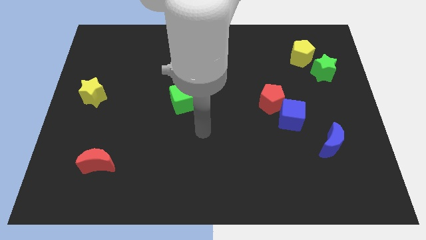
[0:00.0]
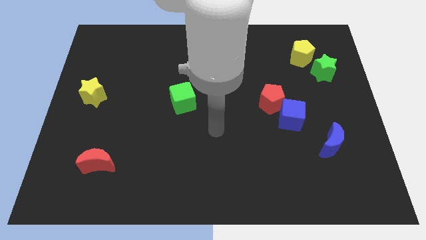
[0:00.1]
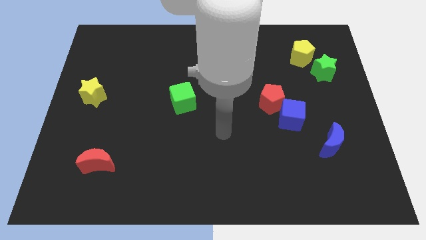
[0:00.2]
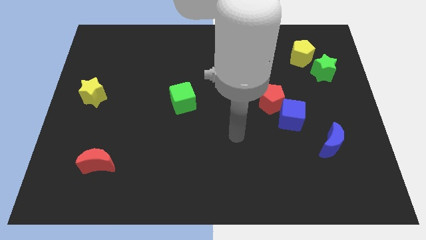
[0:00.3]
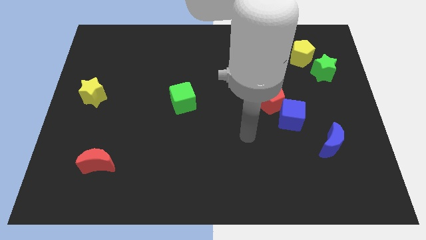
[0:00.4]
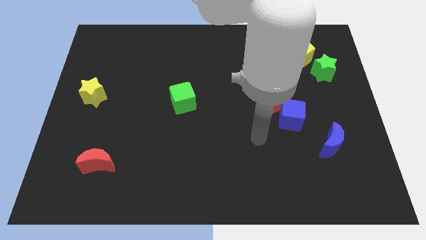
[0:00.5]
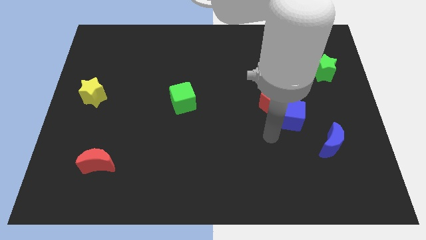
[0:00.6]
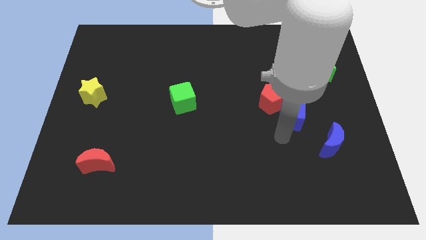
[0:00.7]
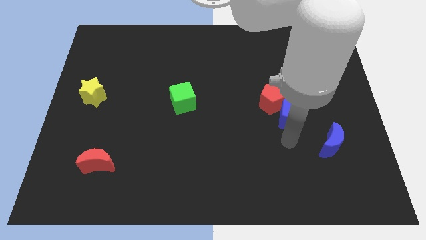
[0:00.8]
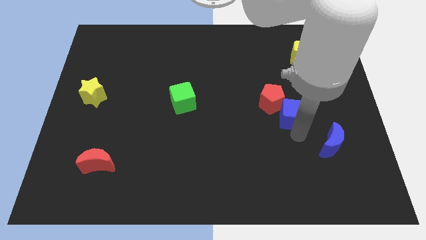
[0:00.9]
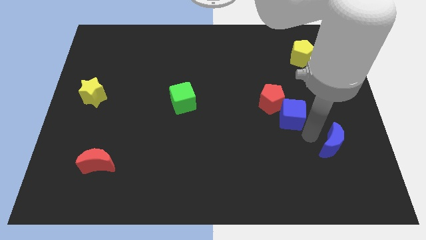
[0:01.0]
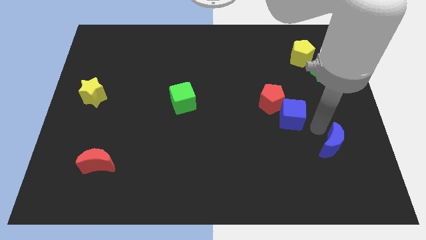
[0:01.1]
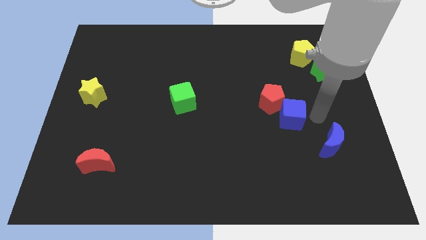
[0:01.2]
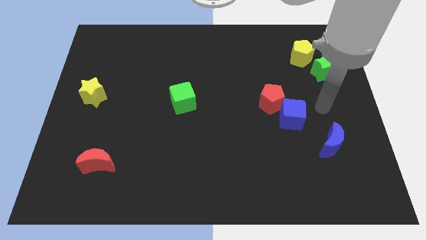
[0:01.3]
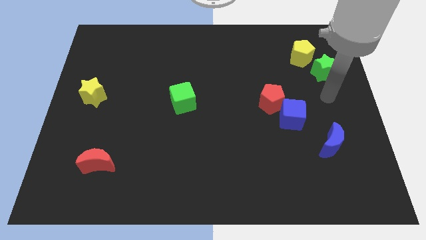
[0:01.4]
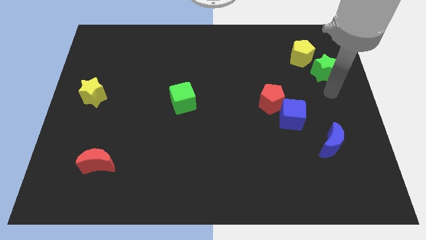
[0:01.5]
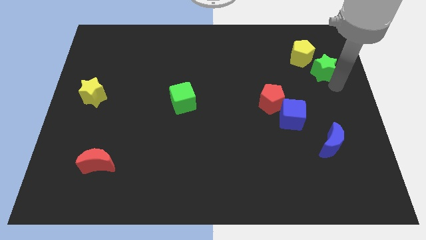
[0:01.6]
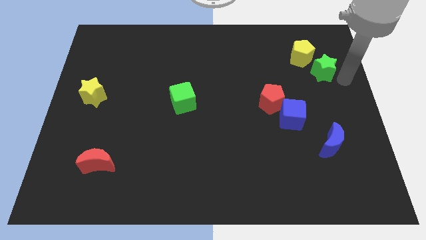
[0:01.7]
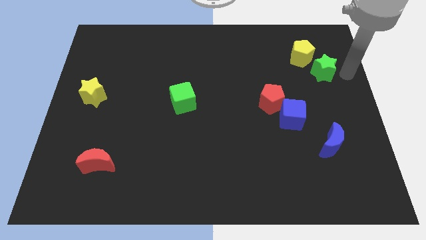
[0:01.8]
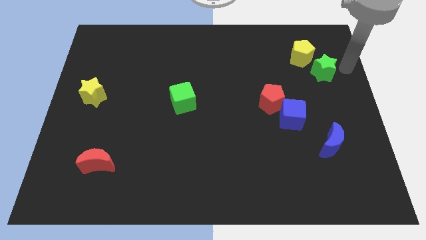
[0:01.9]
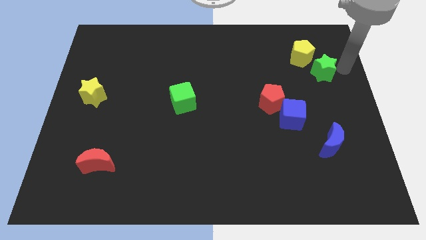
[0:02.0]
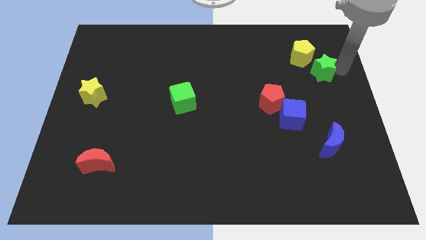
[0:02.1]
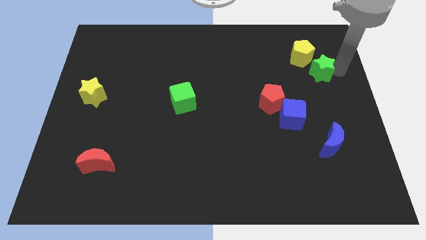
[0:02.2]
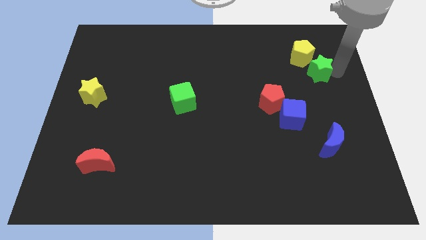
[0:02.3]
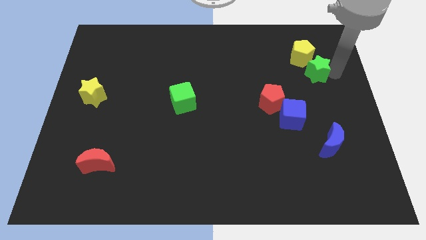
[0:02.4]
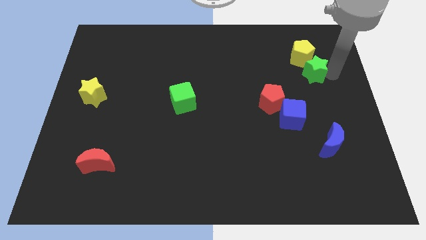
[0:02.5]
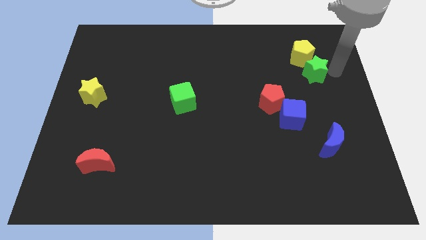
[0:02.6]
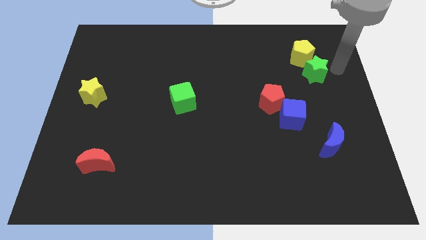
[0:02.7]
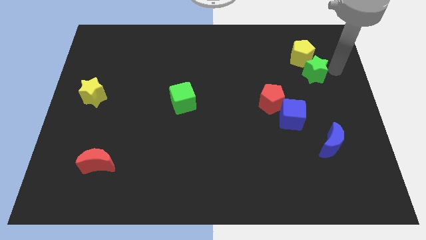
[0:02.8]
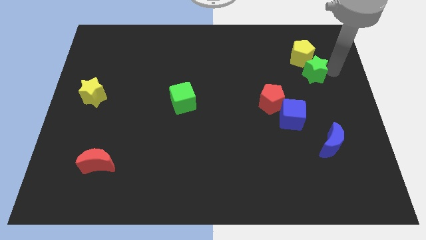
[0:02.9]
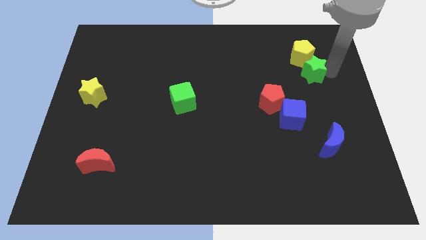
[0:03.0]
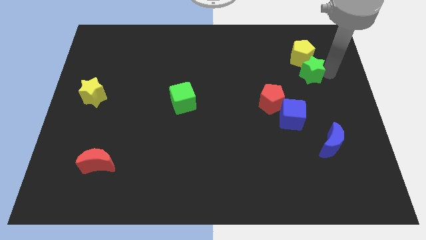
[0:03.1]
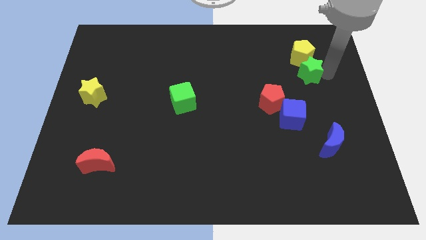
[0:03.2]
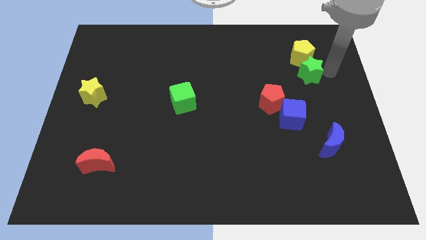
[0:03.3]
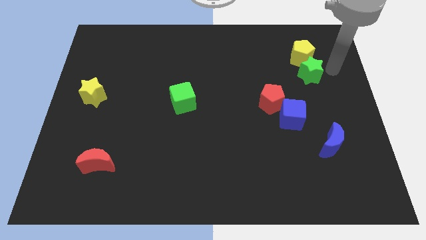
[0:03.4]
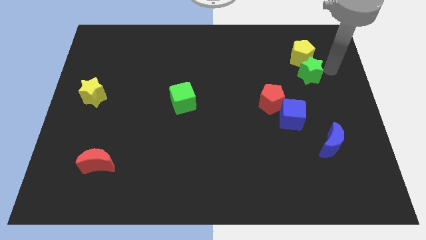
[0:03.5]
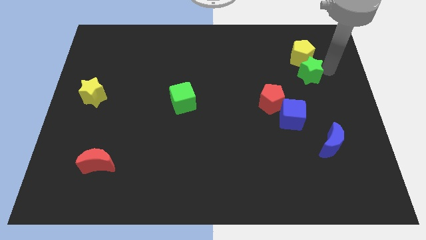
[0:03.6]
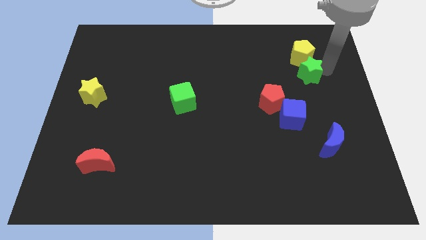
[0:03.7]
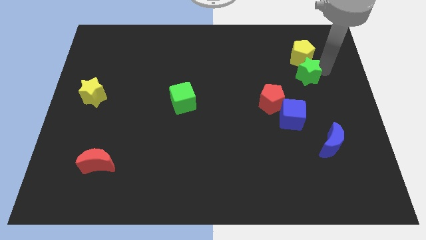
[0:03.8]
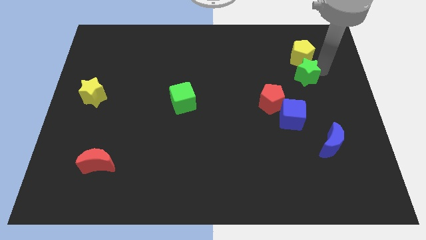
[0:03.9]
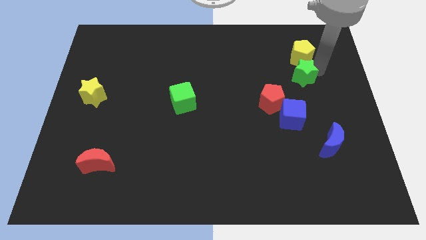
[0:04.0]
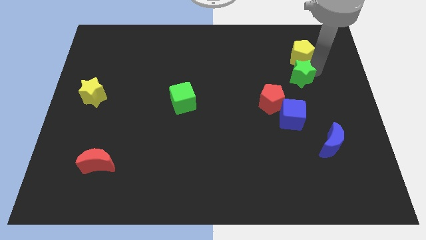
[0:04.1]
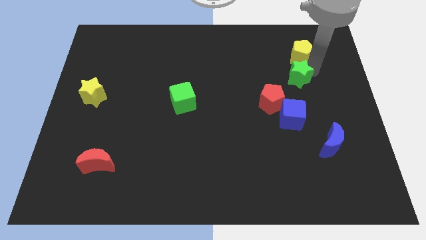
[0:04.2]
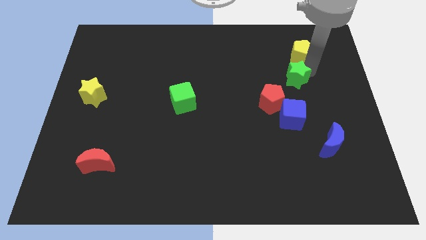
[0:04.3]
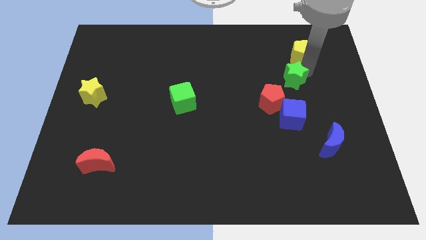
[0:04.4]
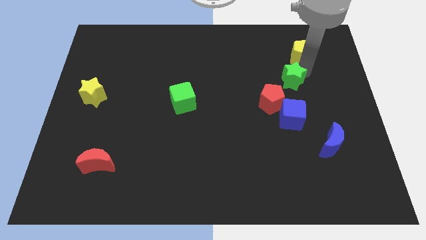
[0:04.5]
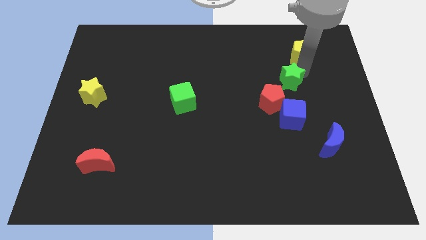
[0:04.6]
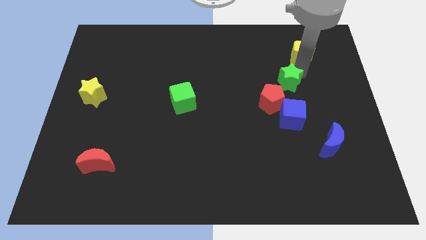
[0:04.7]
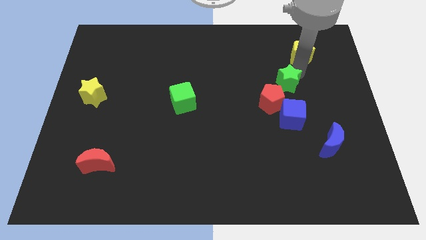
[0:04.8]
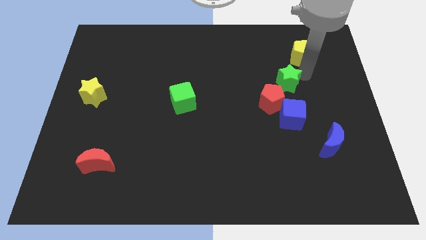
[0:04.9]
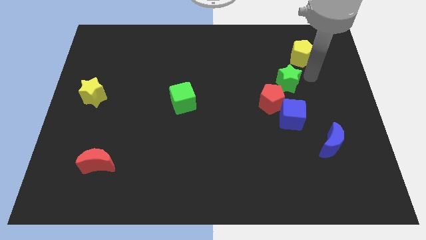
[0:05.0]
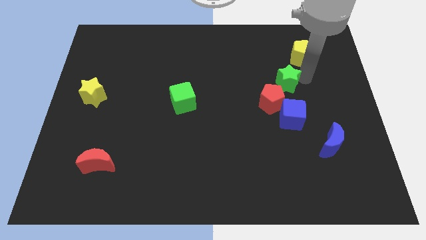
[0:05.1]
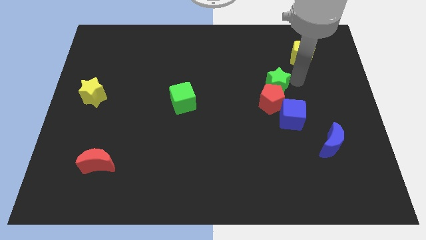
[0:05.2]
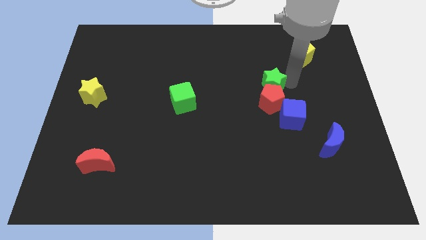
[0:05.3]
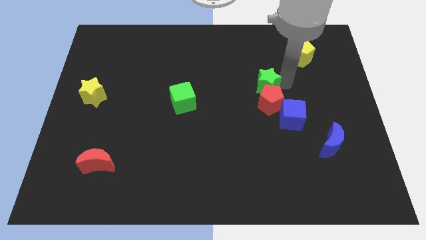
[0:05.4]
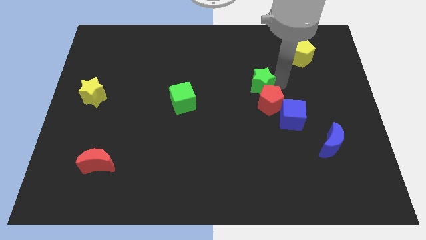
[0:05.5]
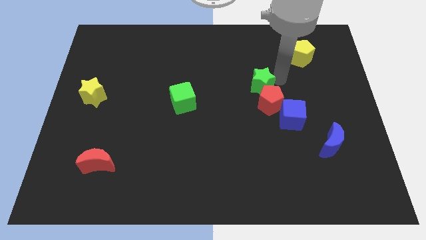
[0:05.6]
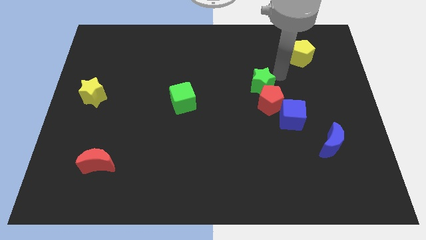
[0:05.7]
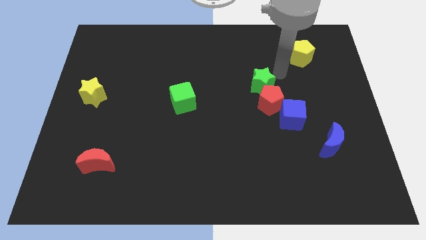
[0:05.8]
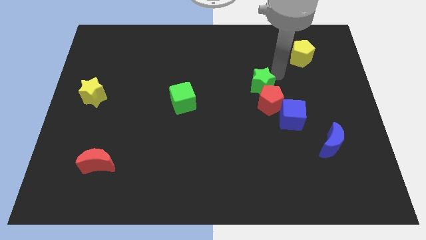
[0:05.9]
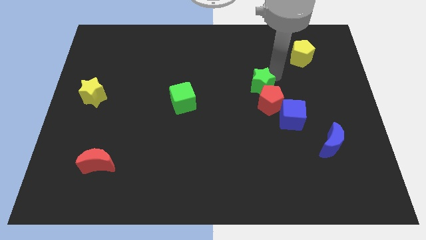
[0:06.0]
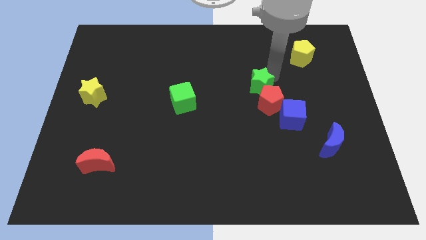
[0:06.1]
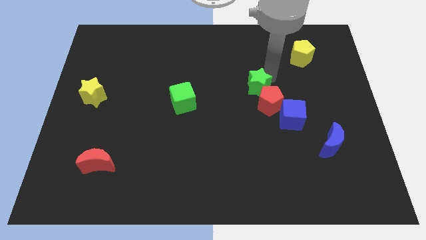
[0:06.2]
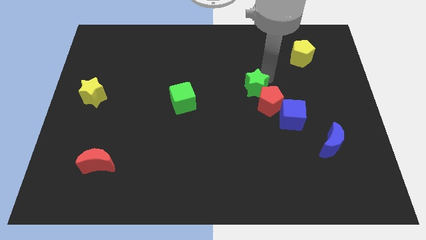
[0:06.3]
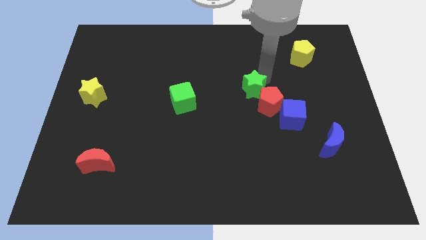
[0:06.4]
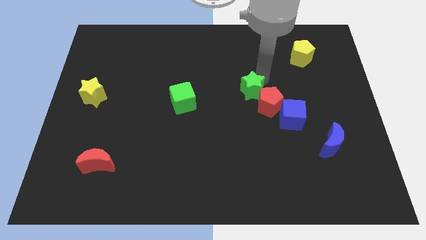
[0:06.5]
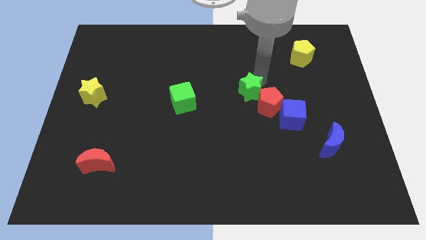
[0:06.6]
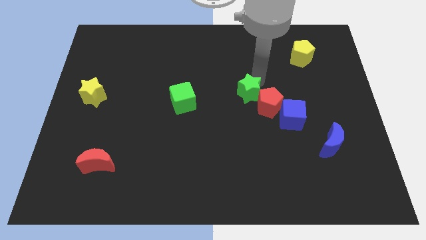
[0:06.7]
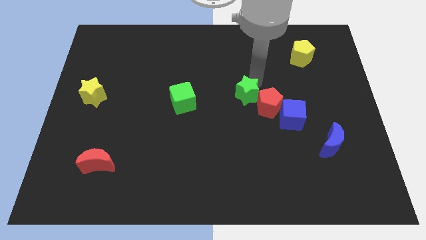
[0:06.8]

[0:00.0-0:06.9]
put the green star to the right of the green cube
